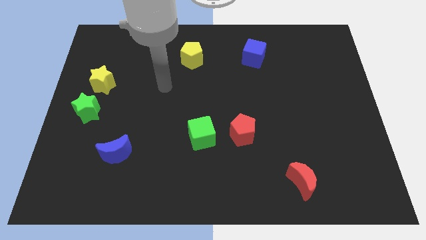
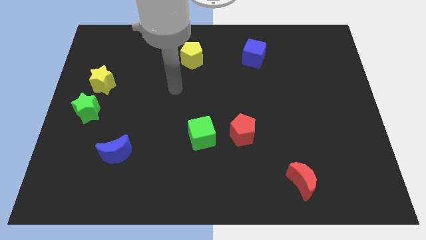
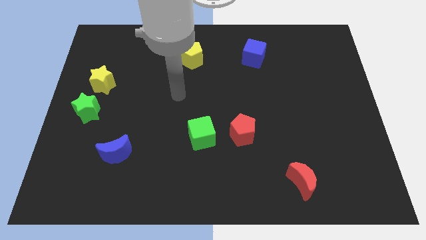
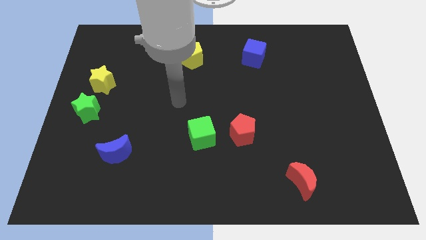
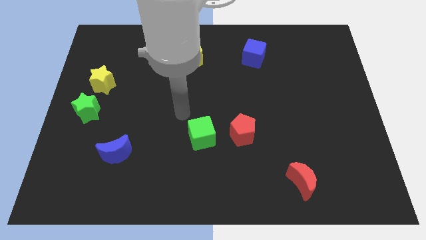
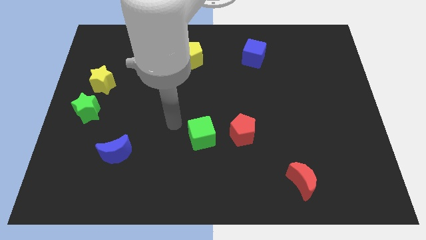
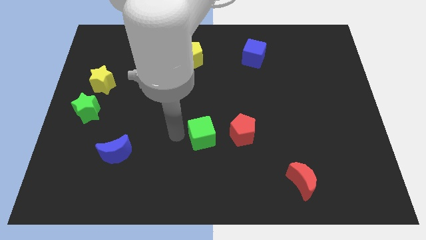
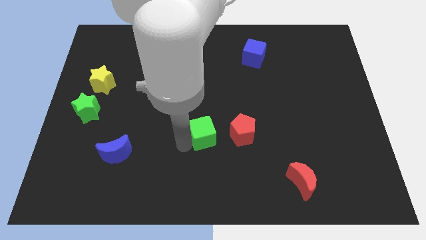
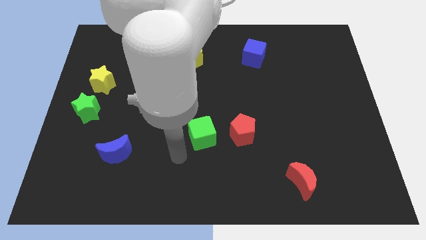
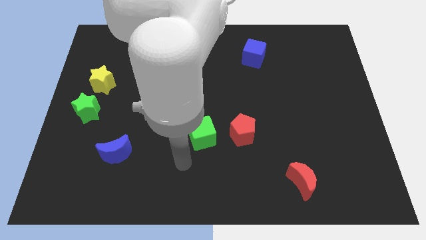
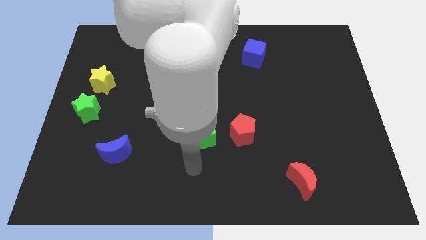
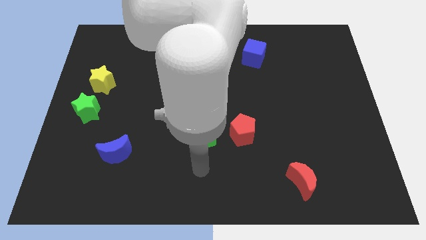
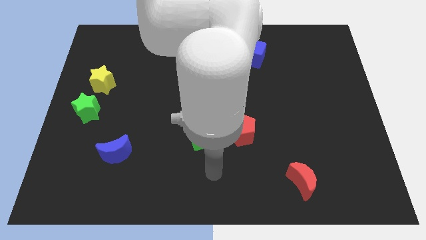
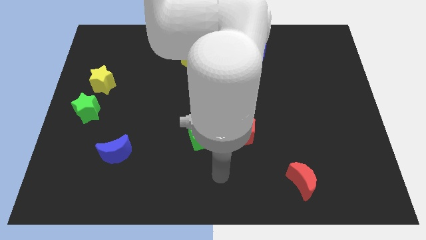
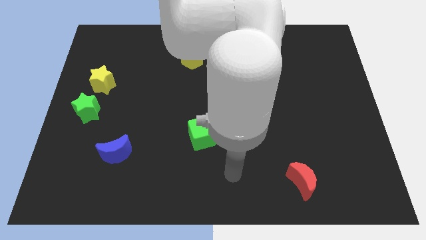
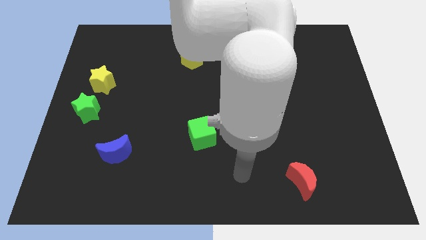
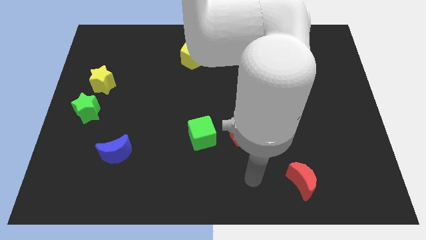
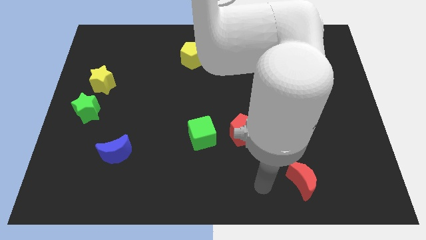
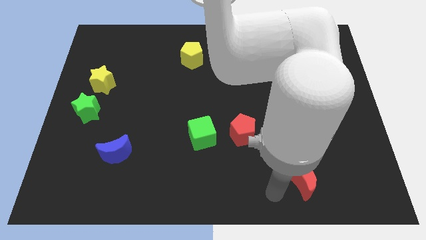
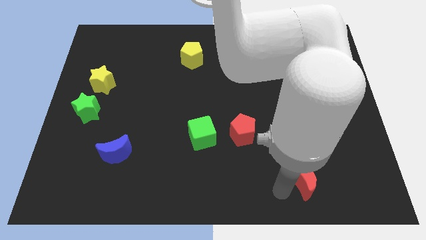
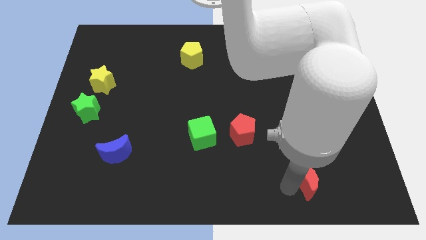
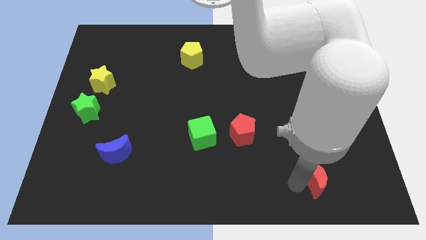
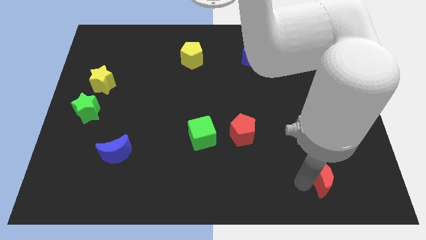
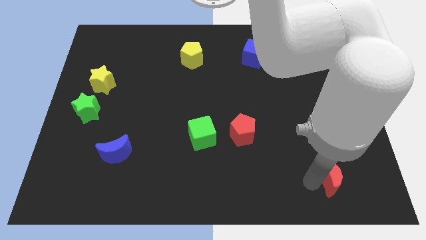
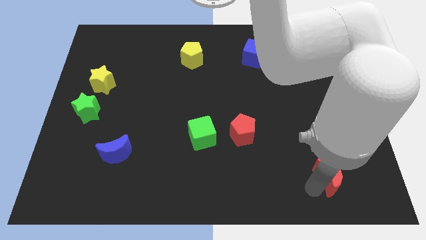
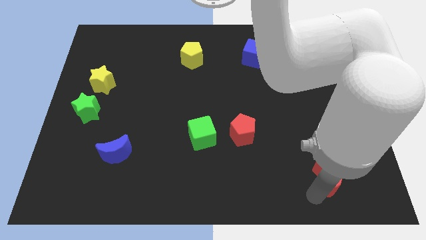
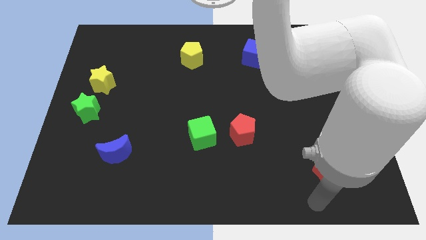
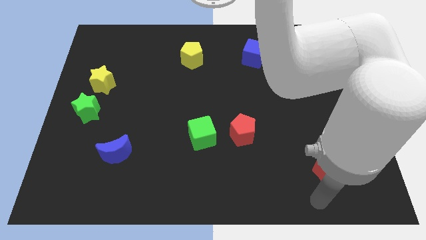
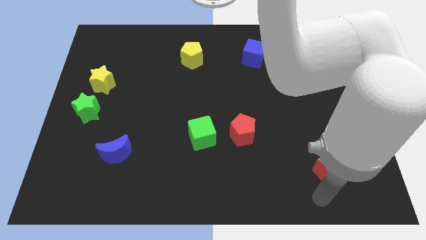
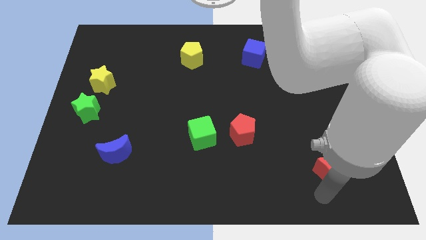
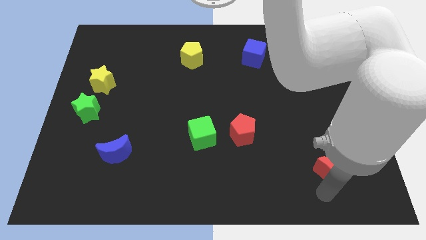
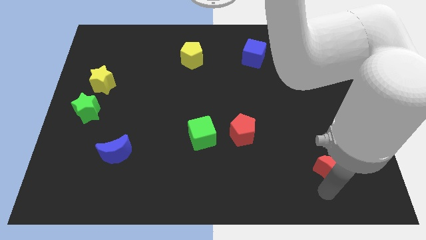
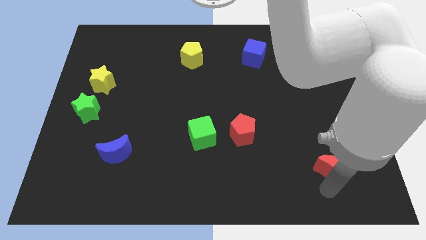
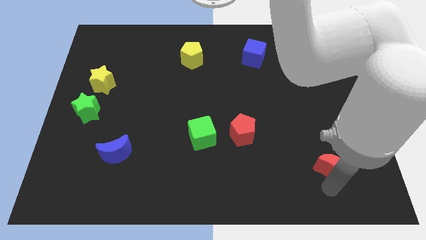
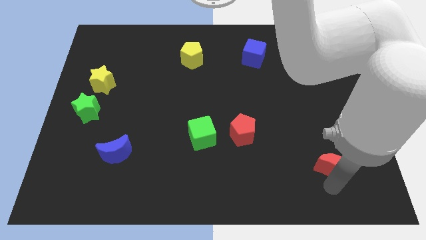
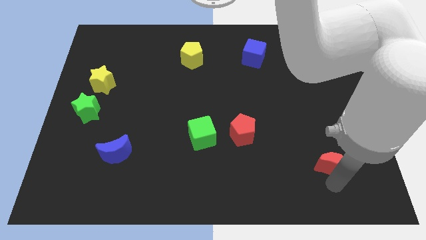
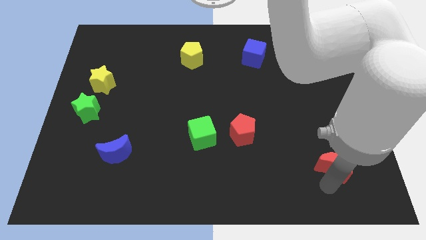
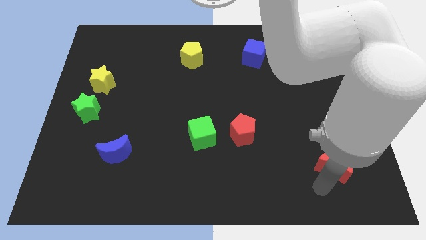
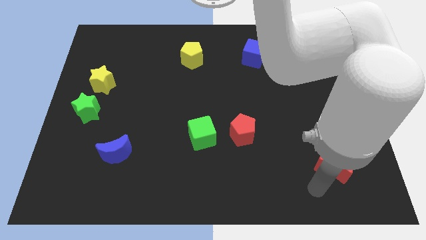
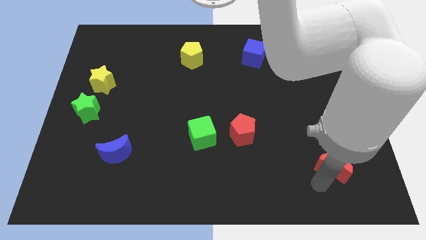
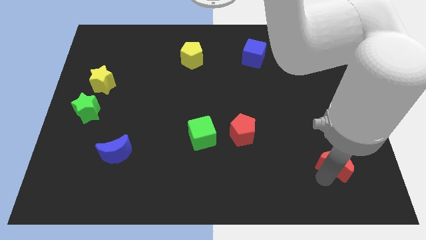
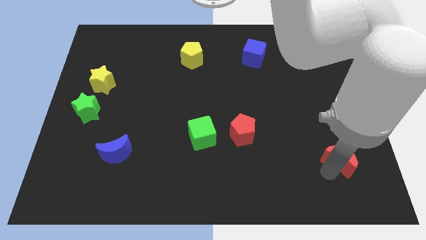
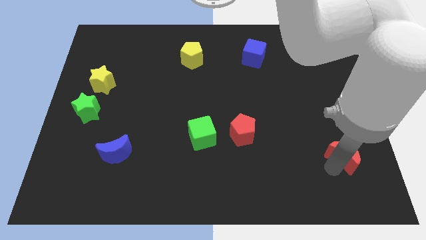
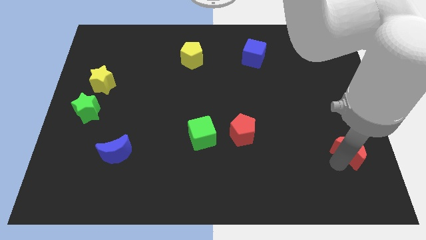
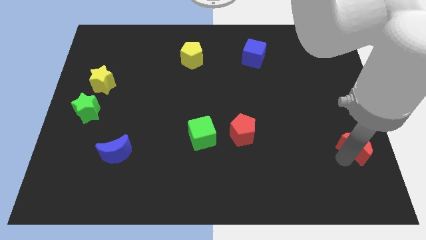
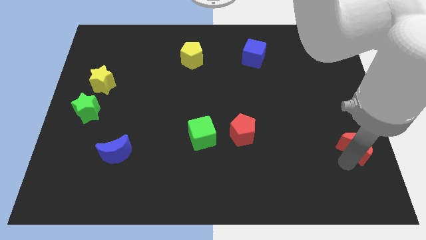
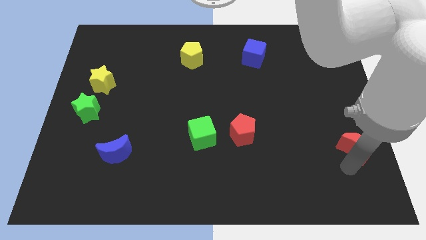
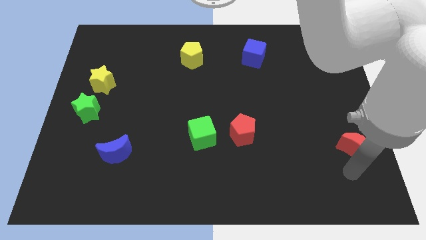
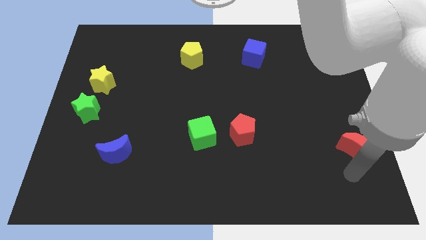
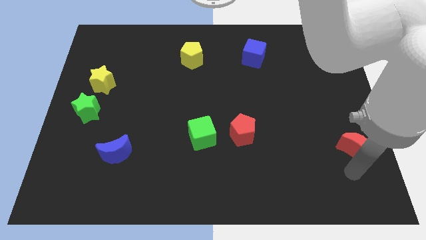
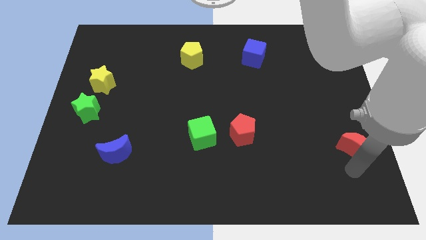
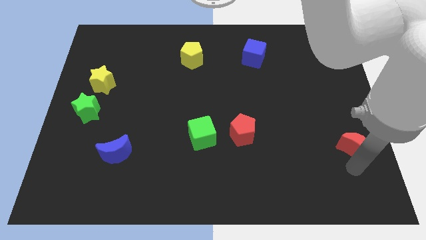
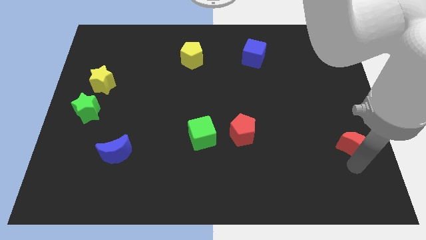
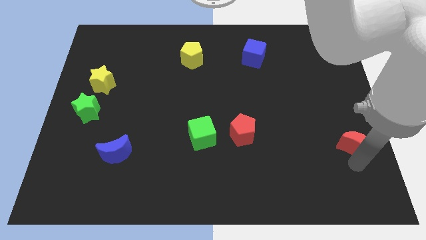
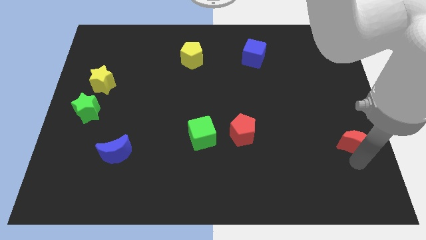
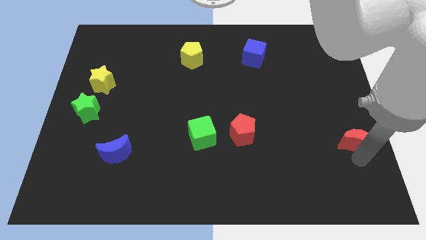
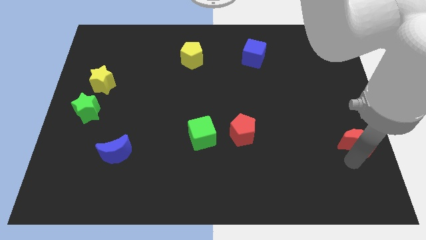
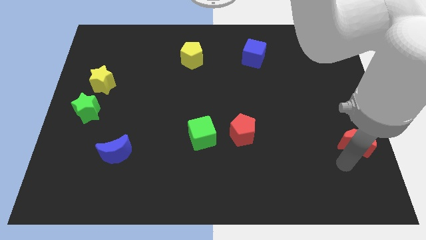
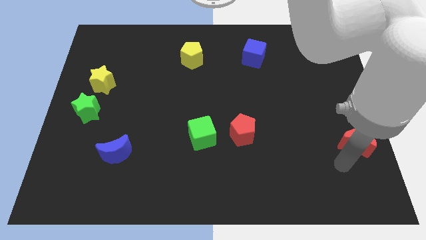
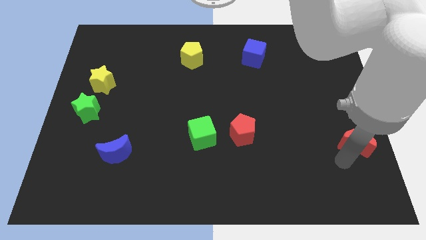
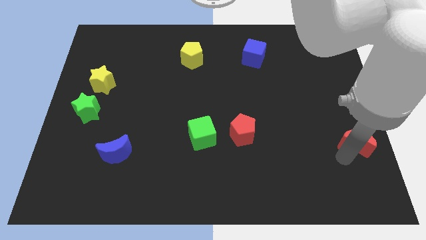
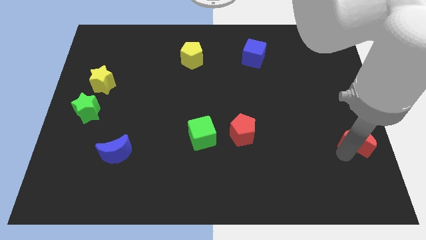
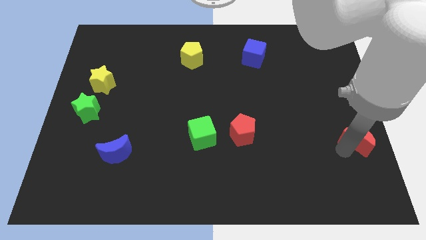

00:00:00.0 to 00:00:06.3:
put the red moon to the right side of the board
